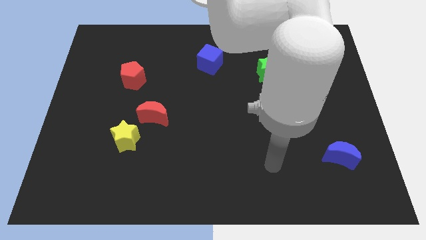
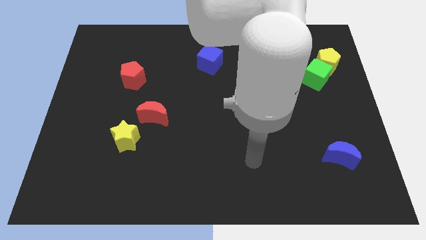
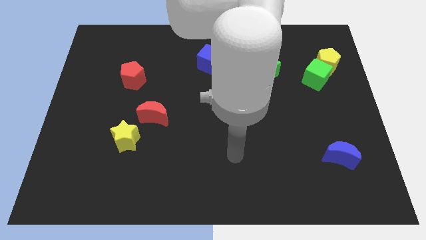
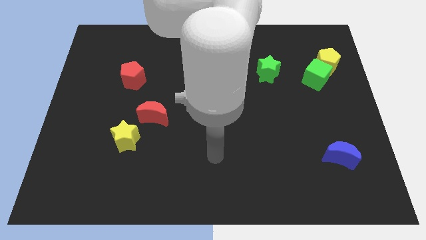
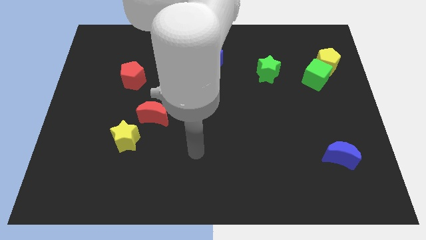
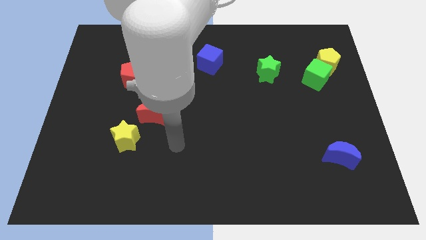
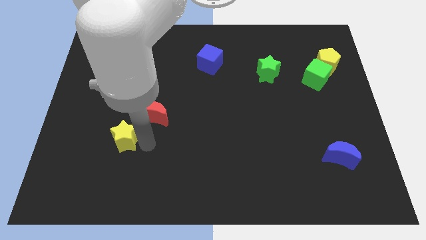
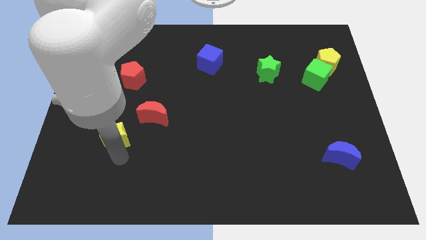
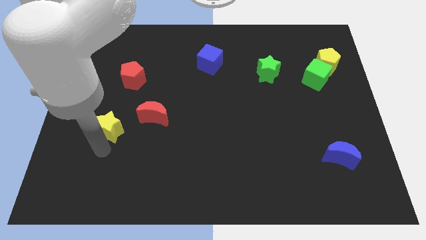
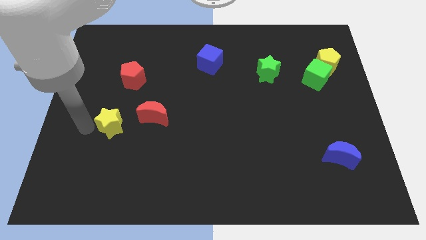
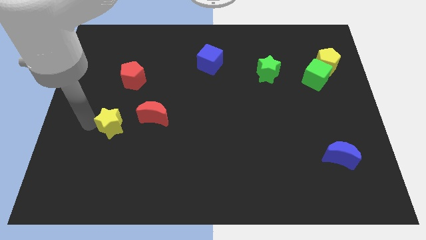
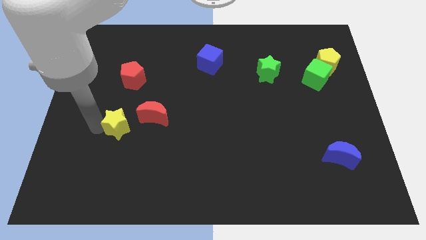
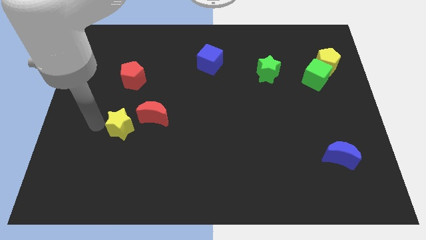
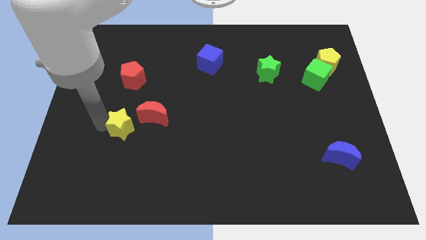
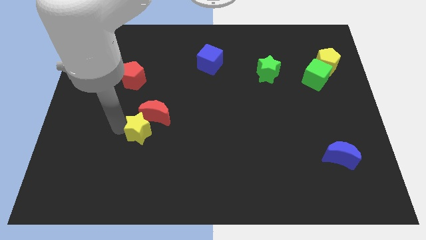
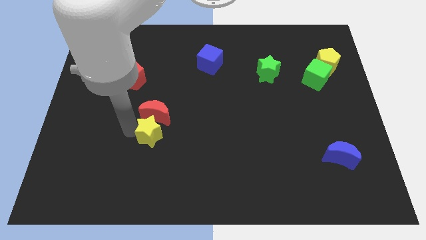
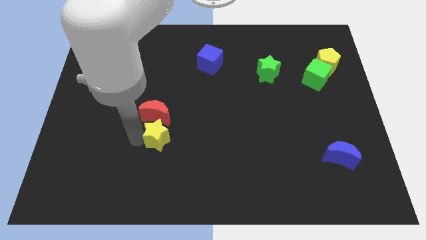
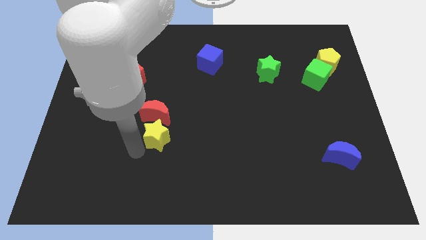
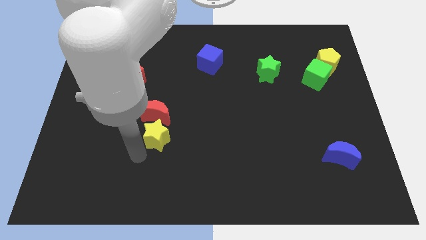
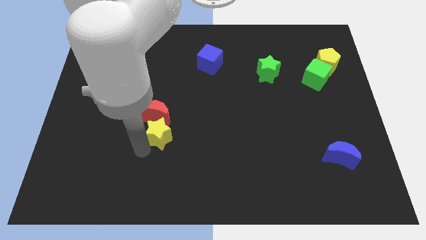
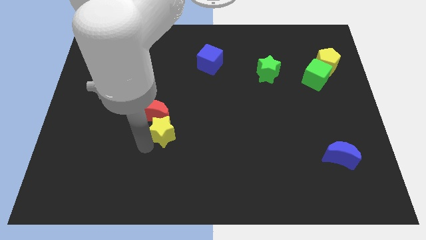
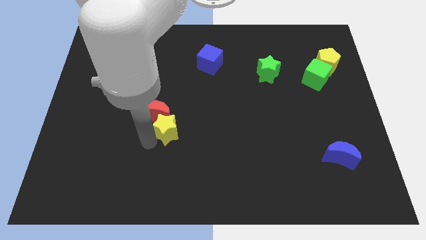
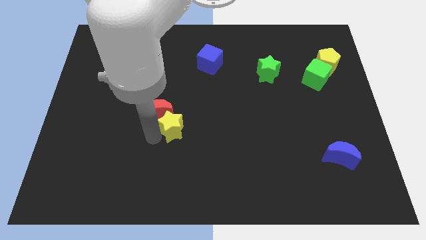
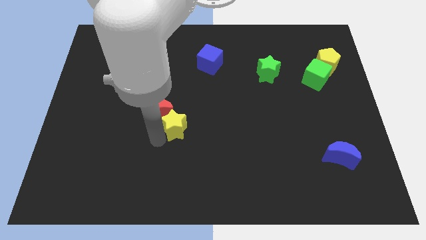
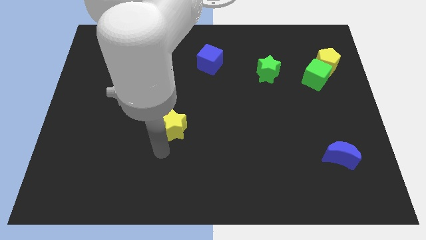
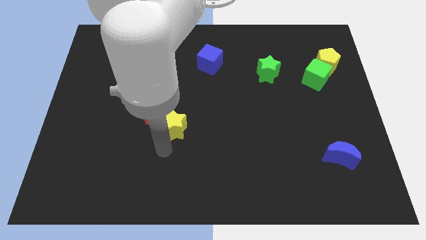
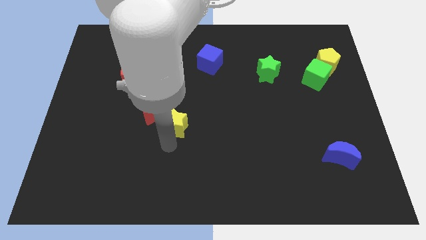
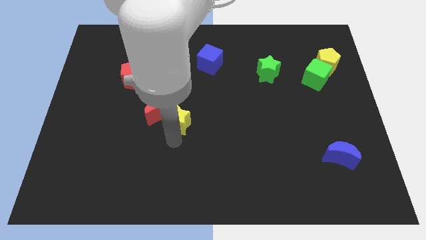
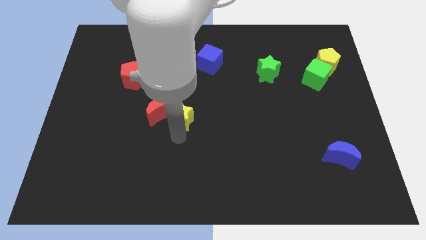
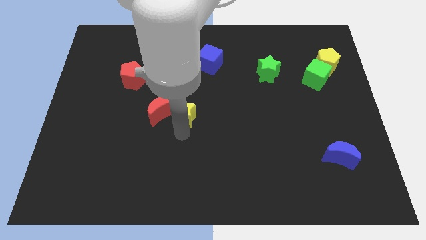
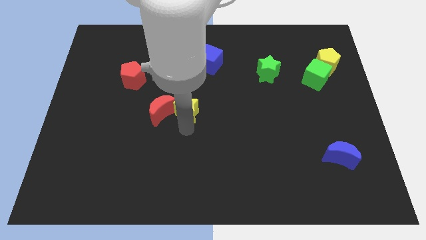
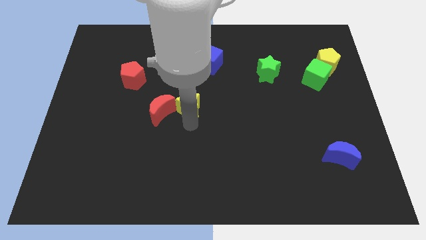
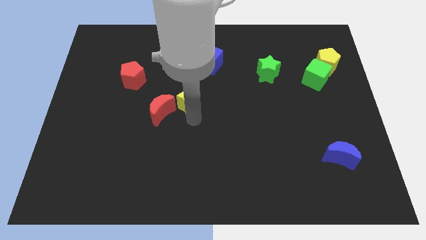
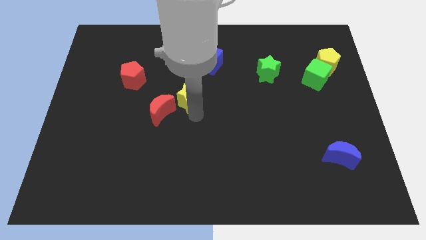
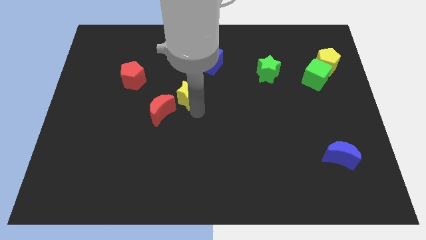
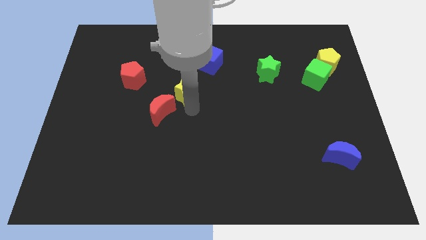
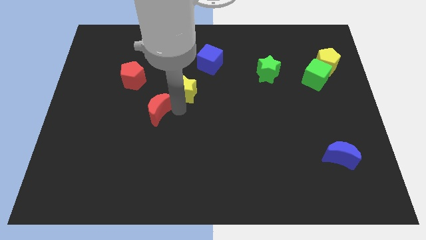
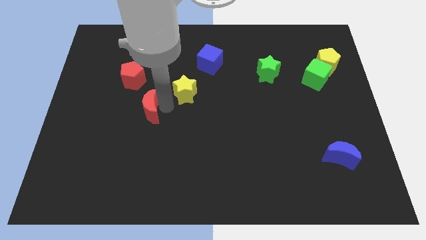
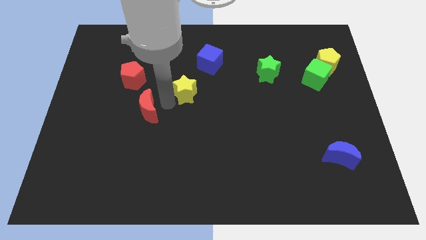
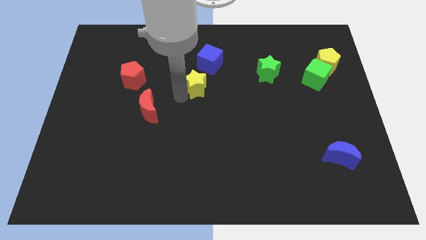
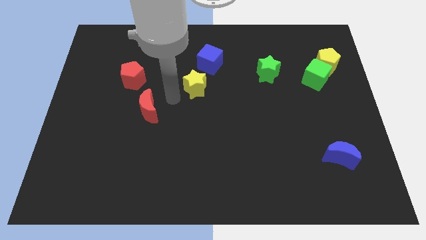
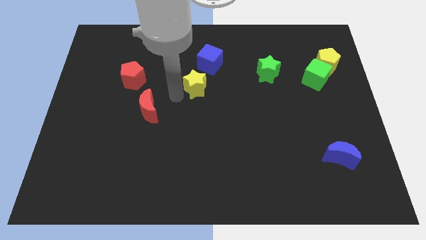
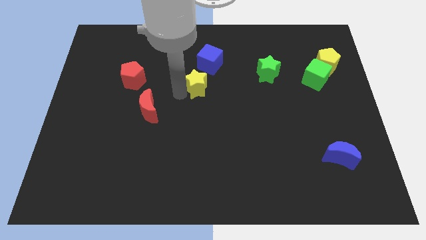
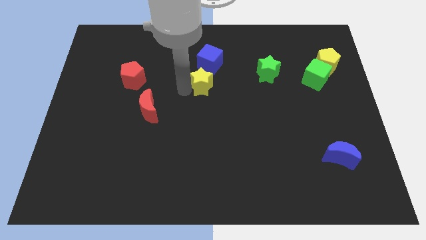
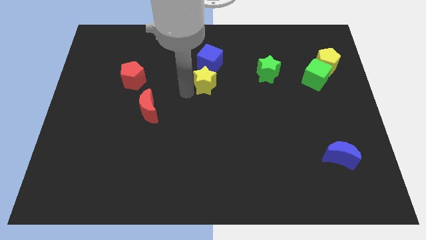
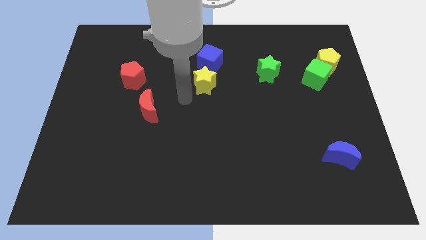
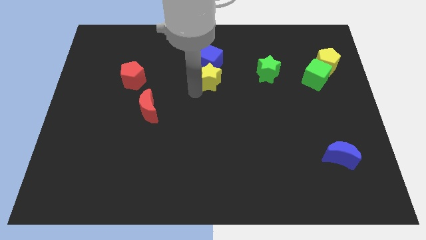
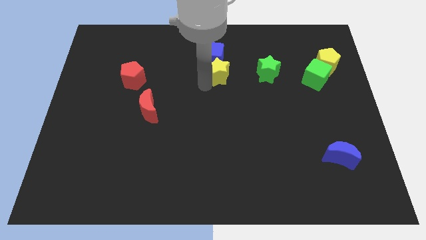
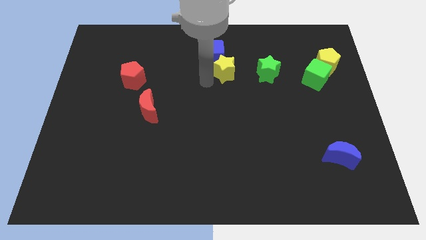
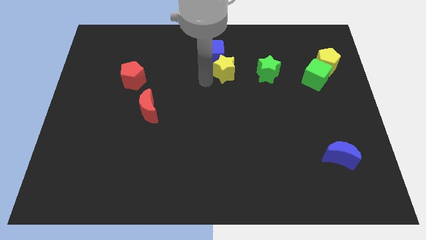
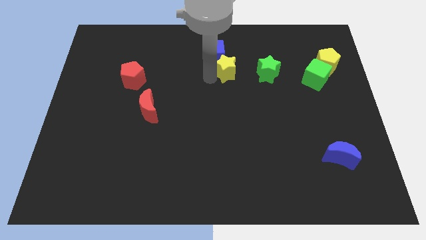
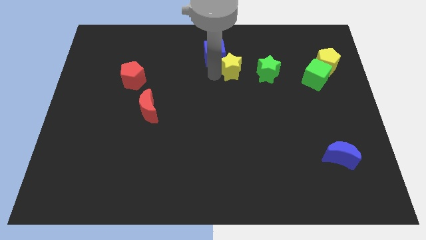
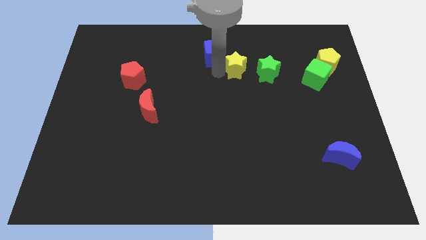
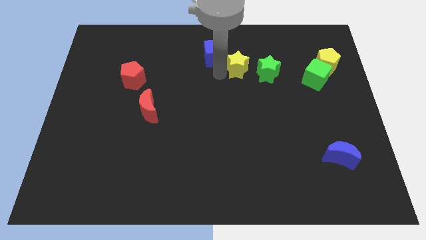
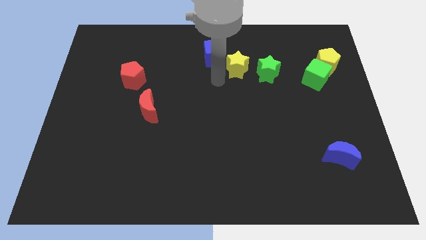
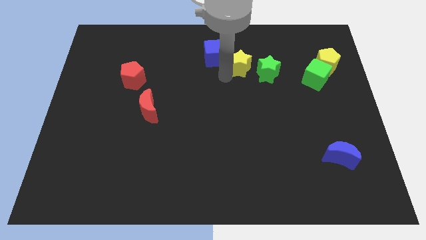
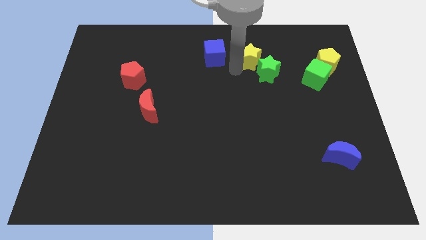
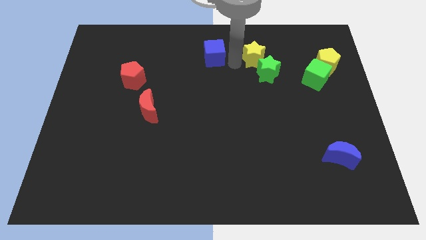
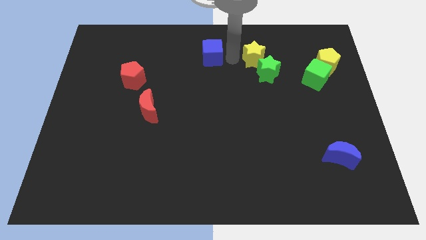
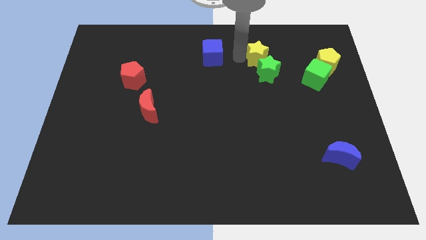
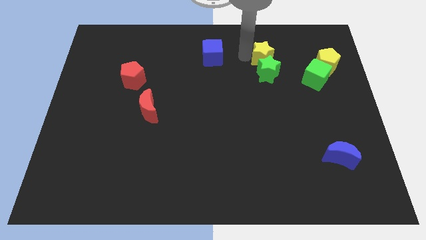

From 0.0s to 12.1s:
move the yellow star to the top right side of the green star

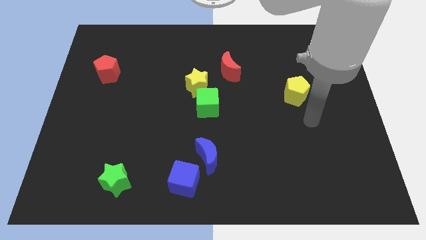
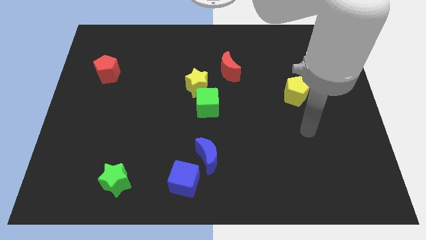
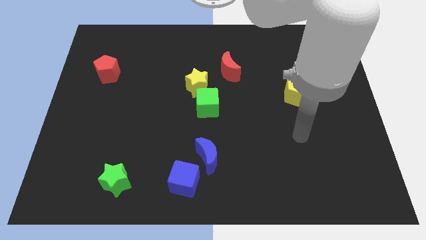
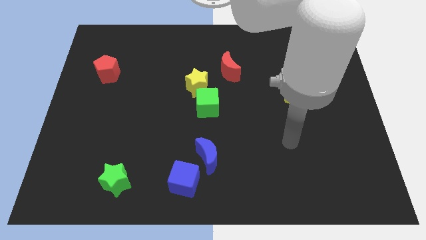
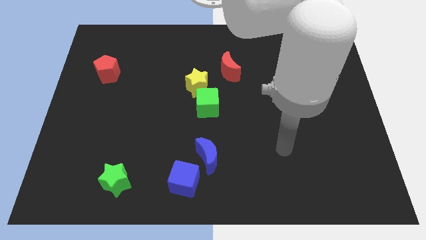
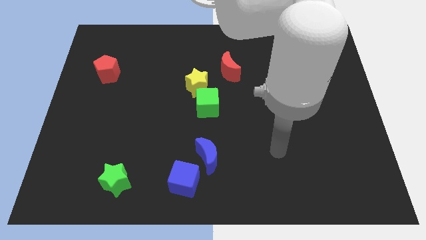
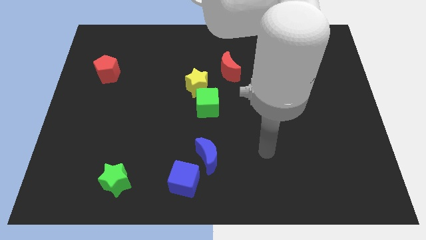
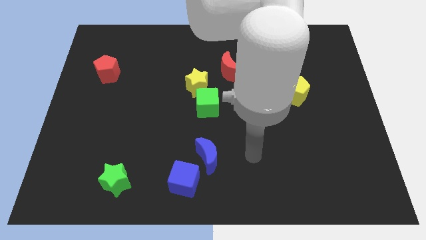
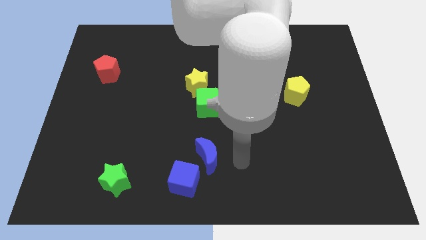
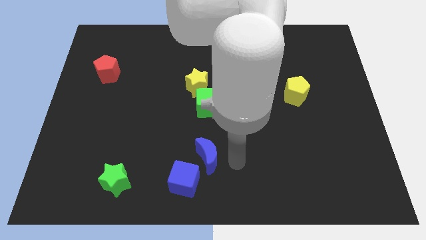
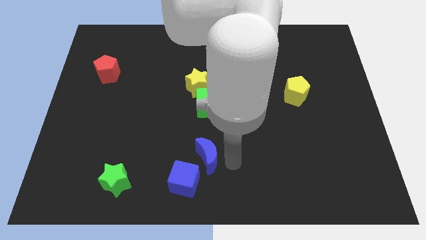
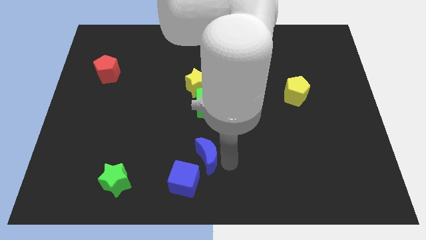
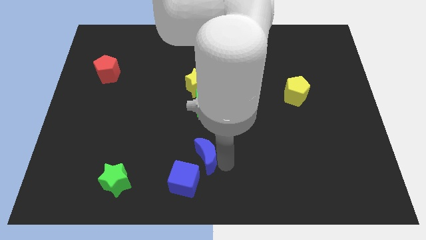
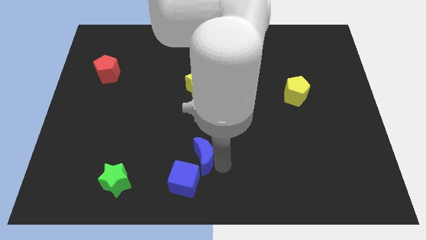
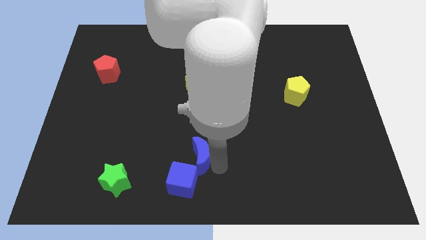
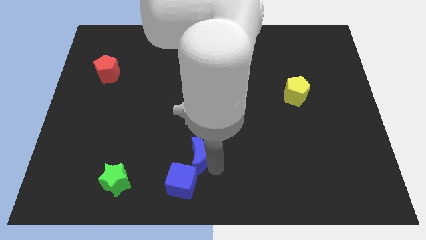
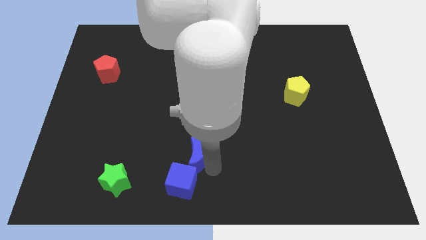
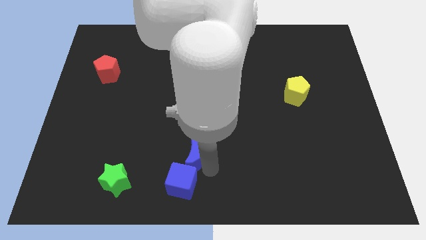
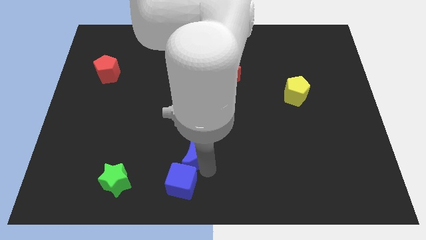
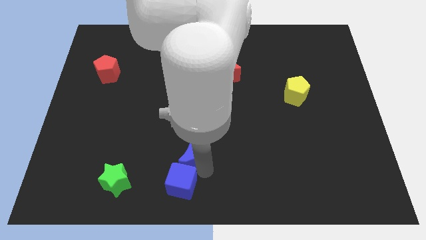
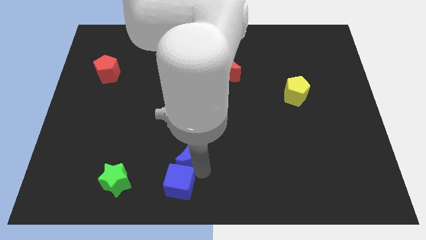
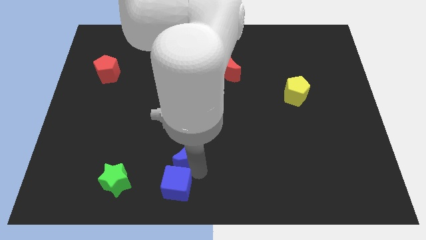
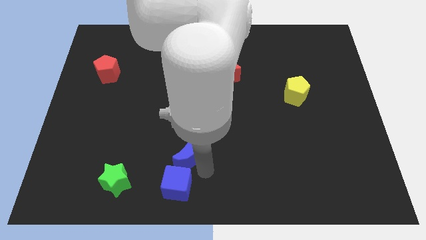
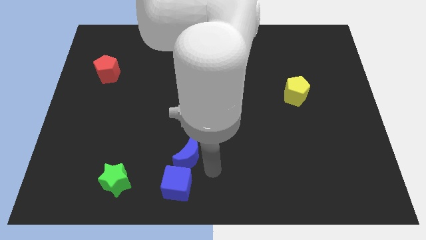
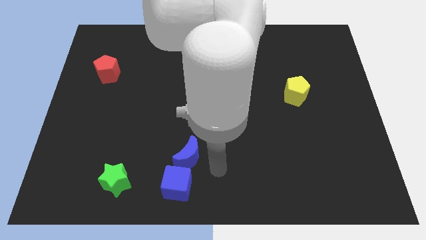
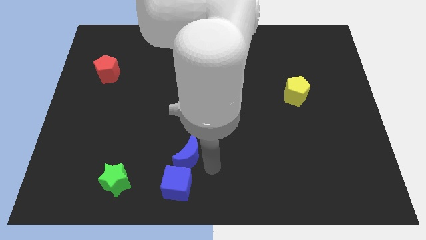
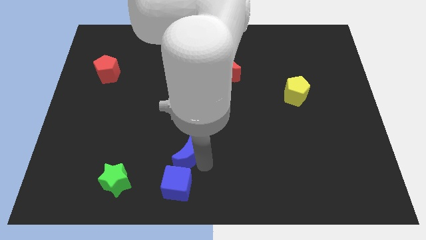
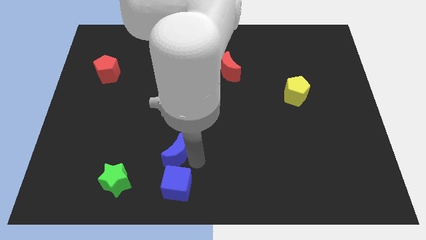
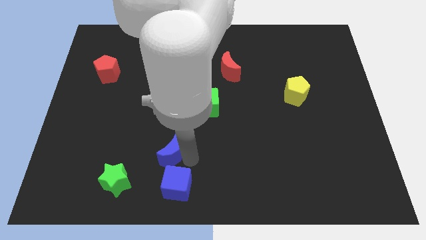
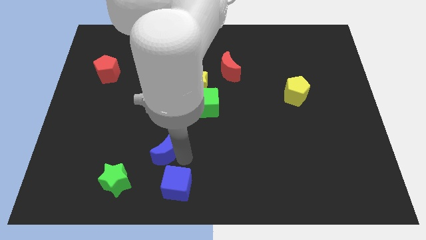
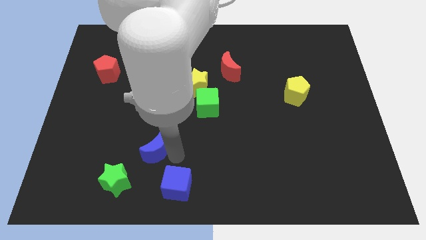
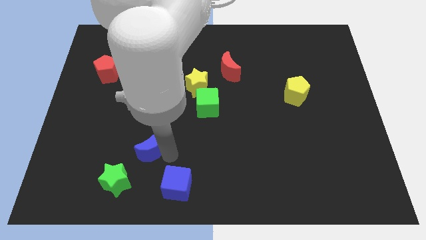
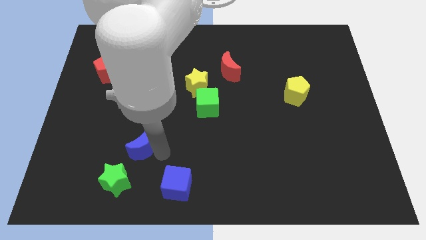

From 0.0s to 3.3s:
slide the blue moon to the top side of the green star
